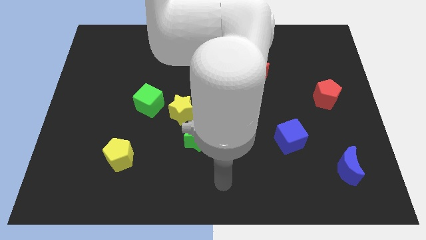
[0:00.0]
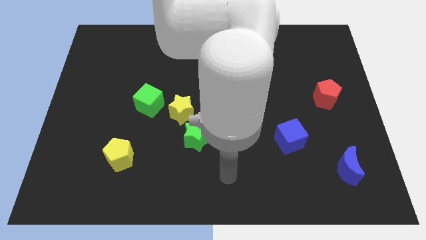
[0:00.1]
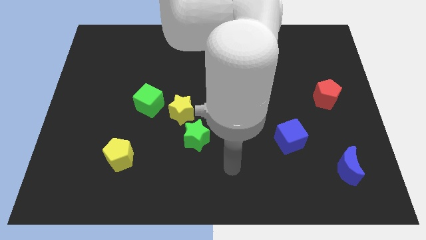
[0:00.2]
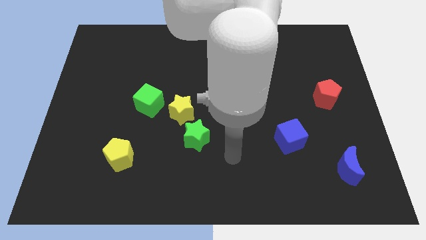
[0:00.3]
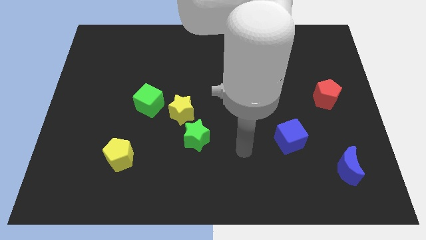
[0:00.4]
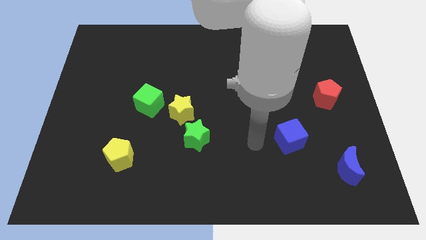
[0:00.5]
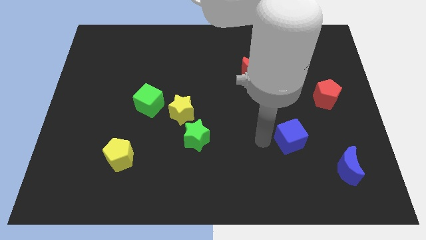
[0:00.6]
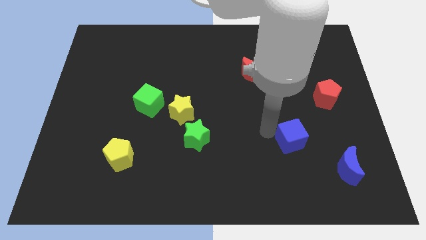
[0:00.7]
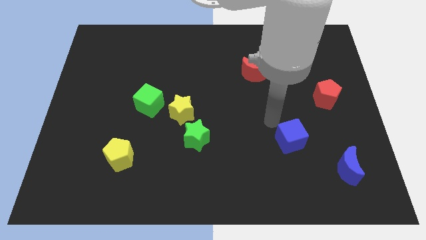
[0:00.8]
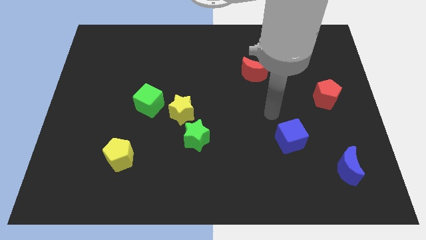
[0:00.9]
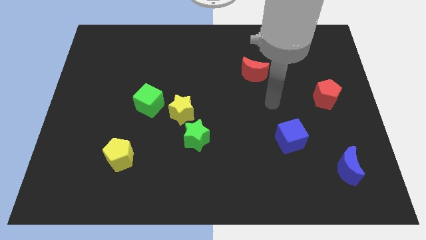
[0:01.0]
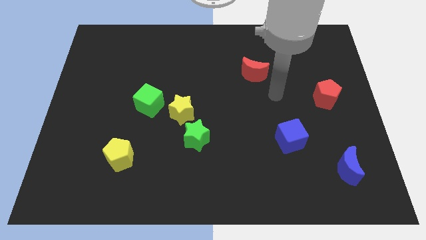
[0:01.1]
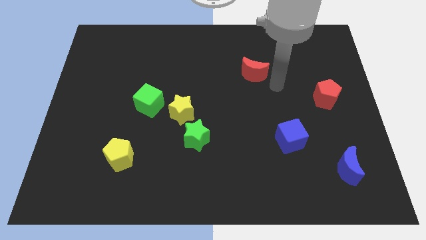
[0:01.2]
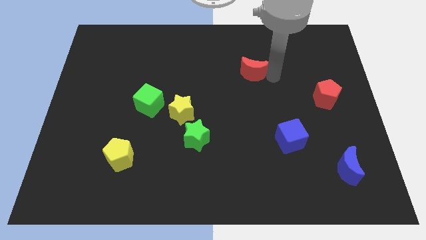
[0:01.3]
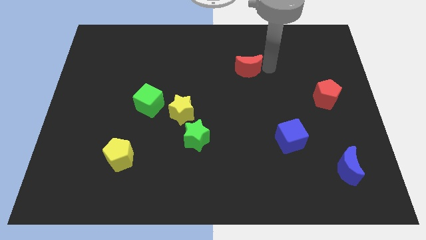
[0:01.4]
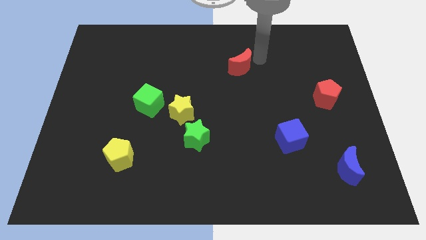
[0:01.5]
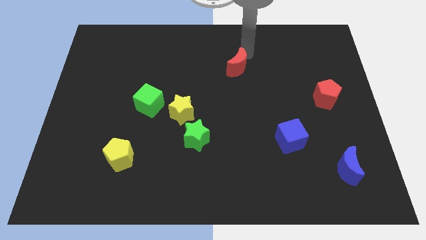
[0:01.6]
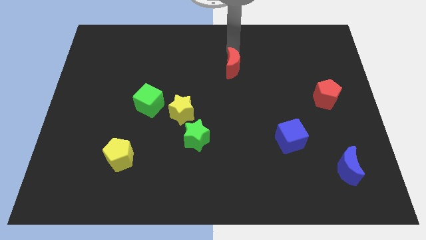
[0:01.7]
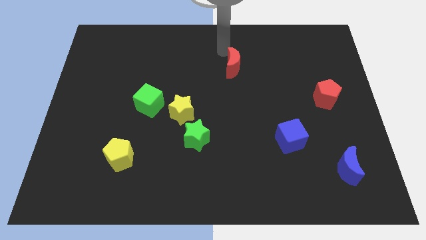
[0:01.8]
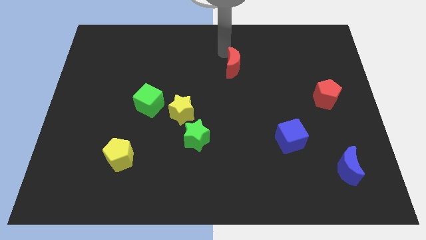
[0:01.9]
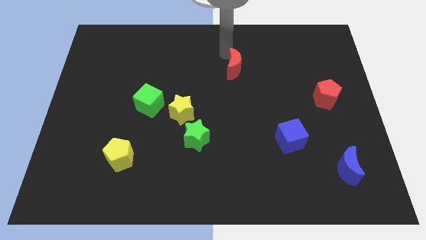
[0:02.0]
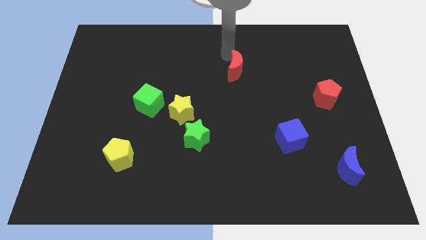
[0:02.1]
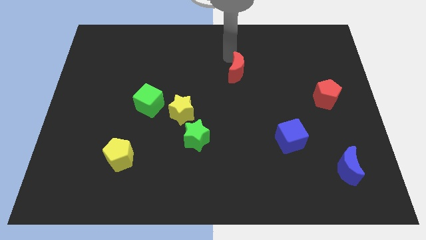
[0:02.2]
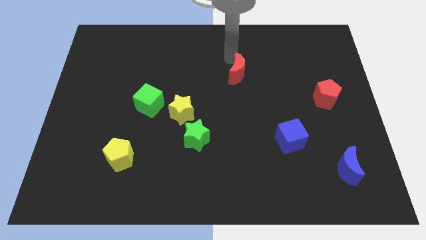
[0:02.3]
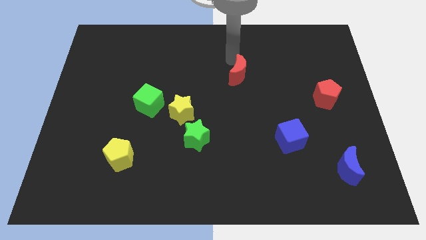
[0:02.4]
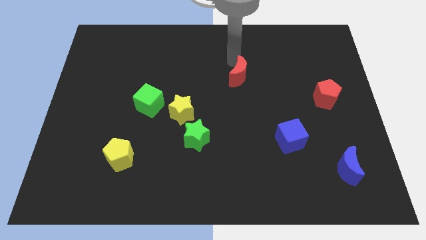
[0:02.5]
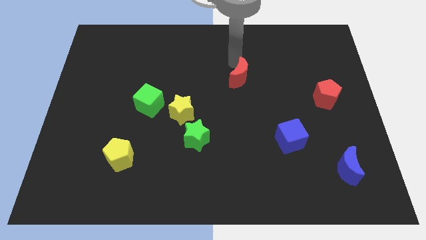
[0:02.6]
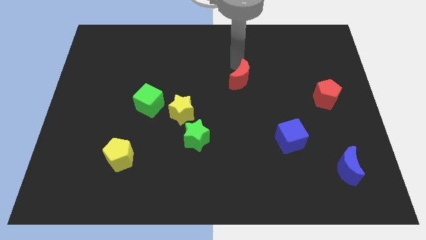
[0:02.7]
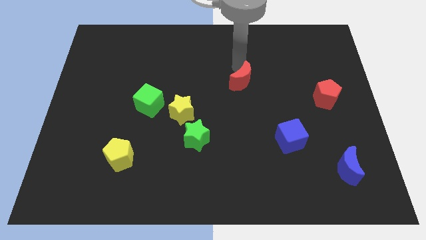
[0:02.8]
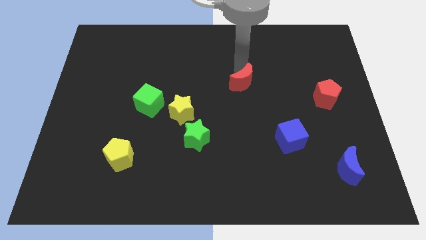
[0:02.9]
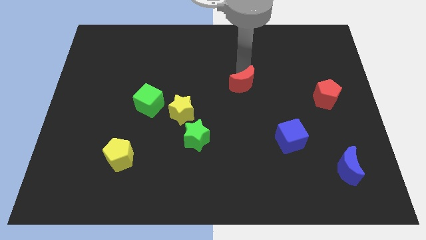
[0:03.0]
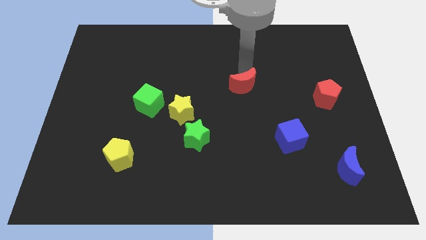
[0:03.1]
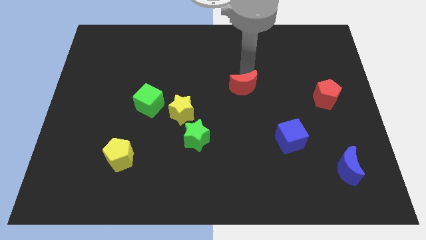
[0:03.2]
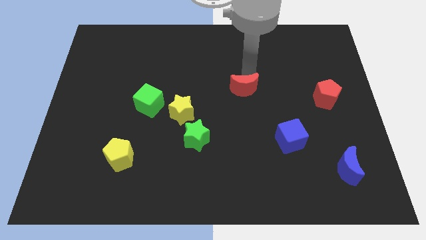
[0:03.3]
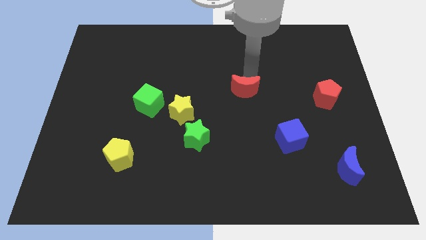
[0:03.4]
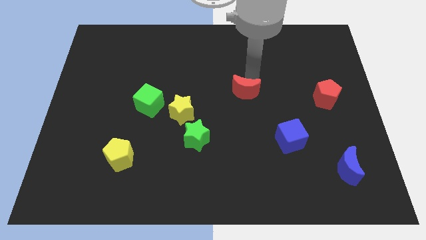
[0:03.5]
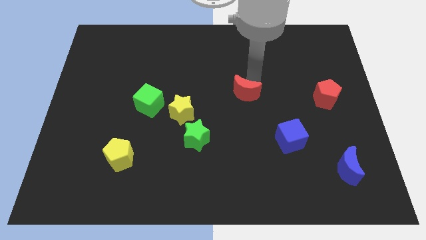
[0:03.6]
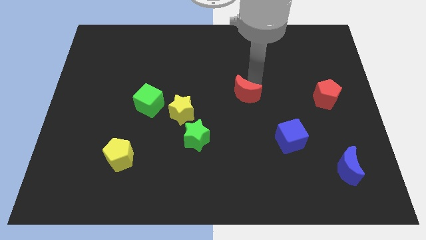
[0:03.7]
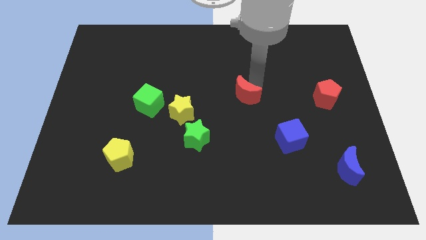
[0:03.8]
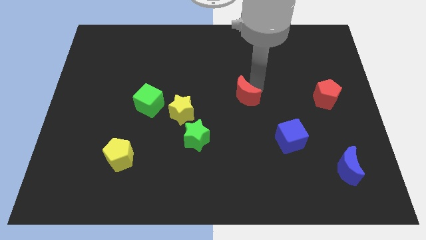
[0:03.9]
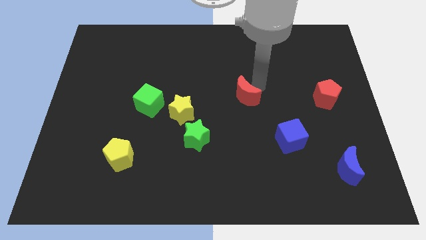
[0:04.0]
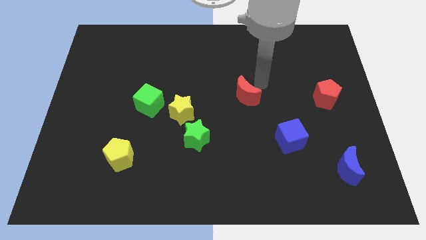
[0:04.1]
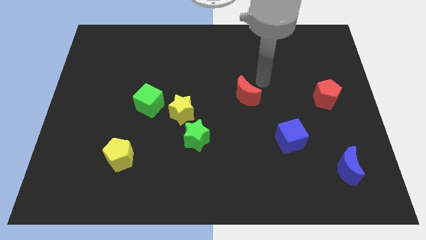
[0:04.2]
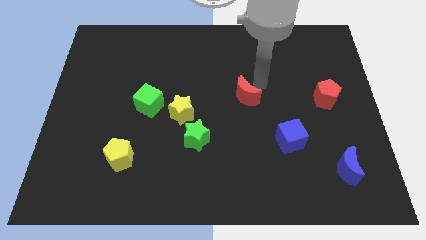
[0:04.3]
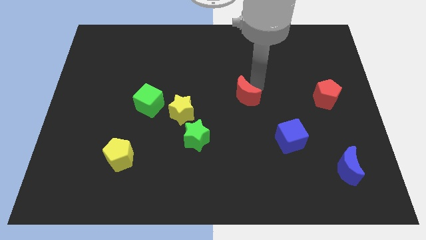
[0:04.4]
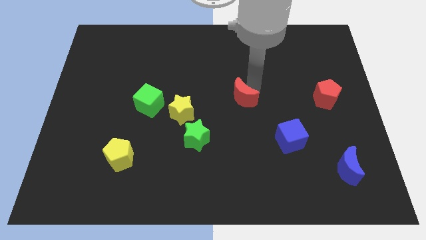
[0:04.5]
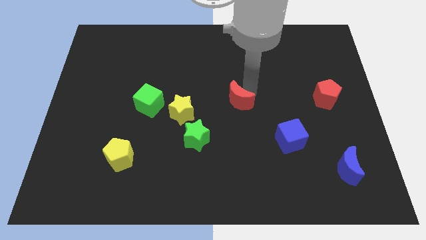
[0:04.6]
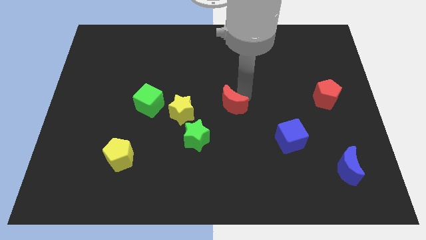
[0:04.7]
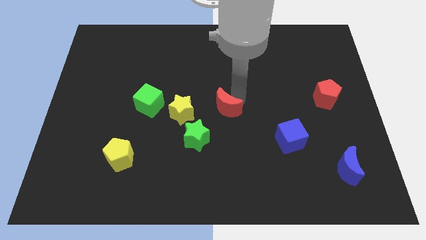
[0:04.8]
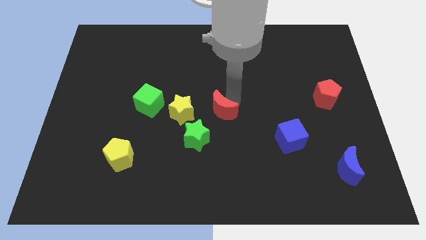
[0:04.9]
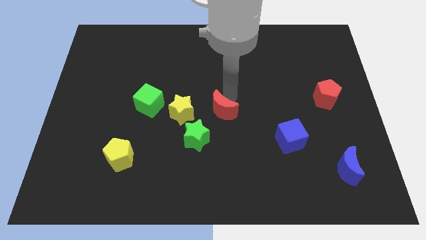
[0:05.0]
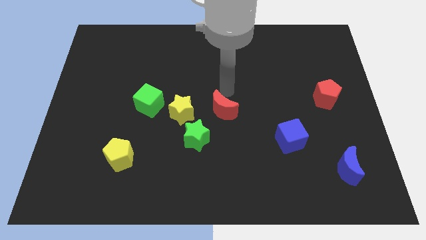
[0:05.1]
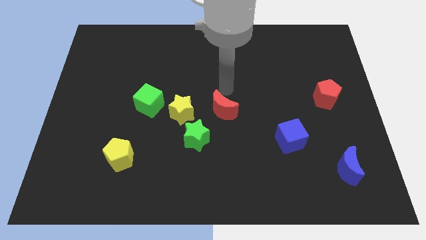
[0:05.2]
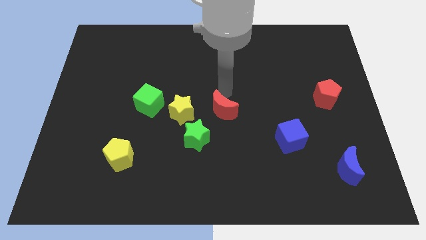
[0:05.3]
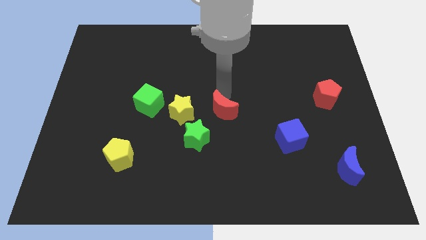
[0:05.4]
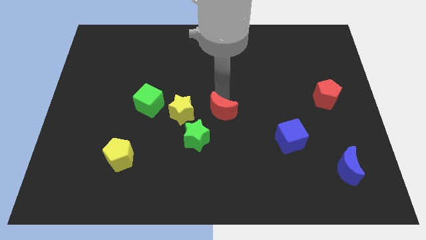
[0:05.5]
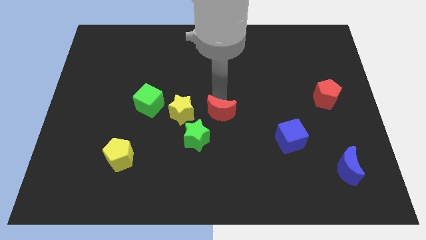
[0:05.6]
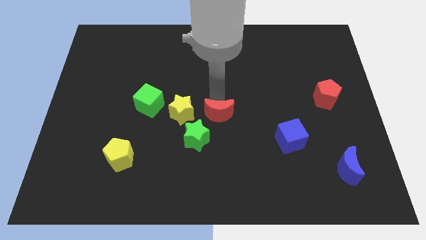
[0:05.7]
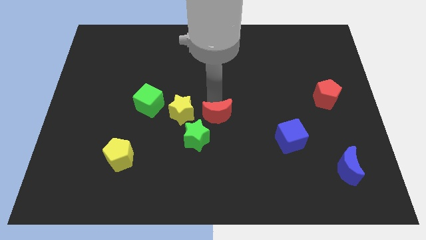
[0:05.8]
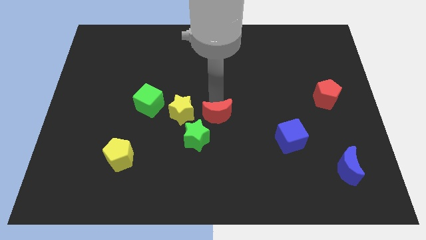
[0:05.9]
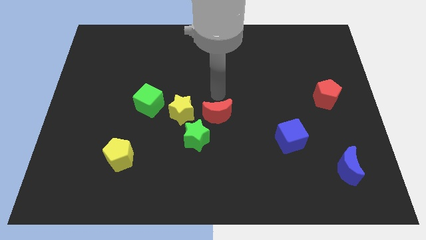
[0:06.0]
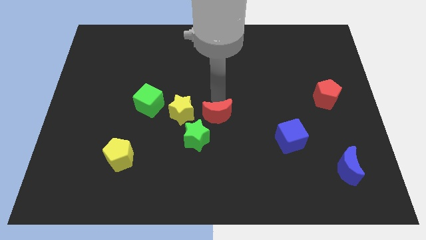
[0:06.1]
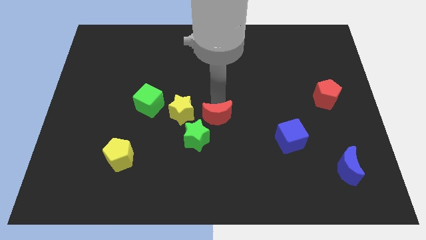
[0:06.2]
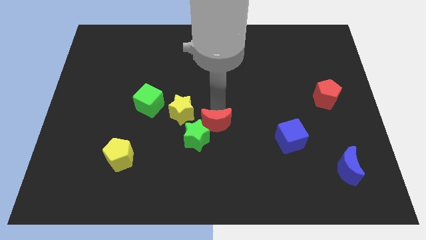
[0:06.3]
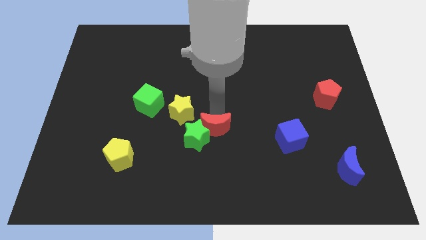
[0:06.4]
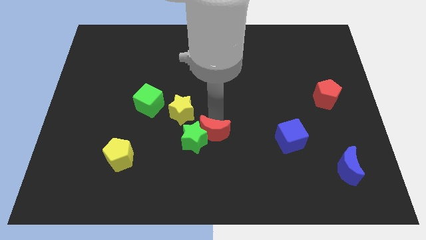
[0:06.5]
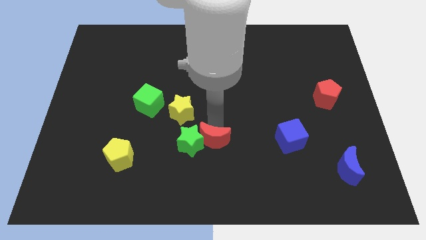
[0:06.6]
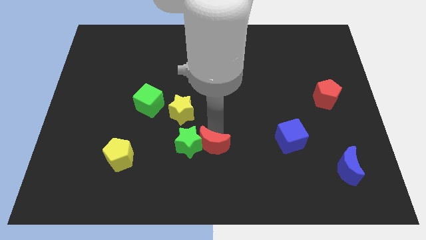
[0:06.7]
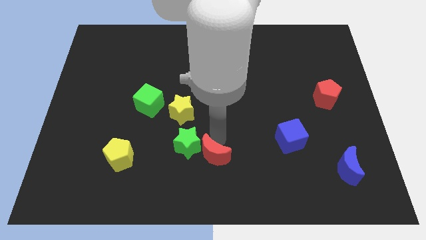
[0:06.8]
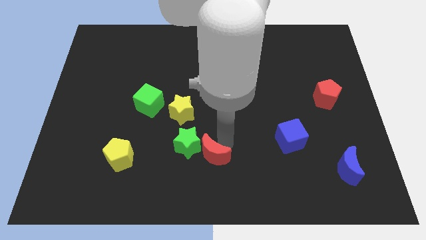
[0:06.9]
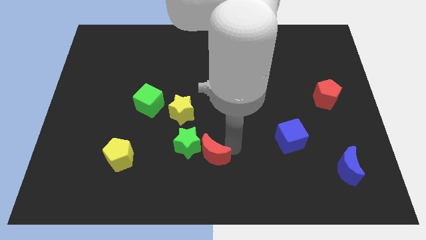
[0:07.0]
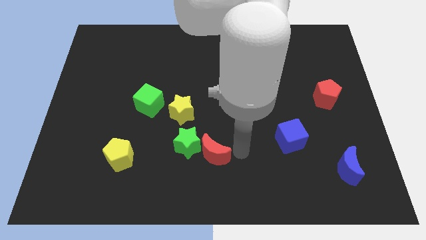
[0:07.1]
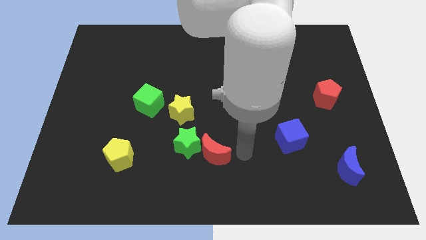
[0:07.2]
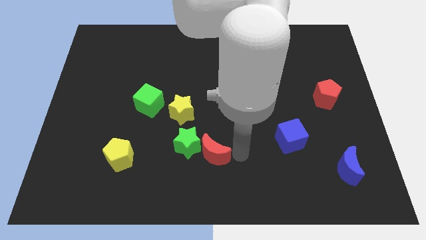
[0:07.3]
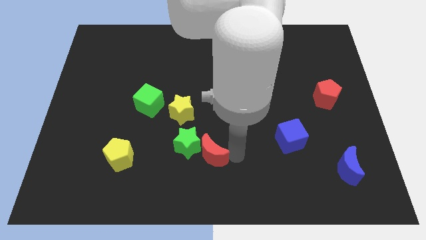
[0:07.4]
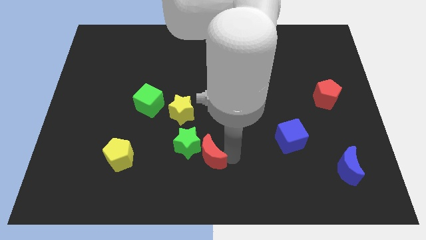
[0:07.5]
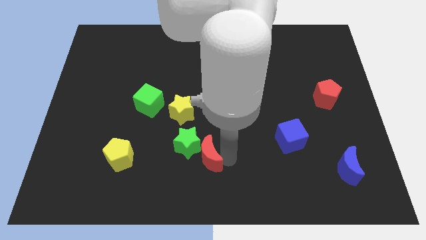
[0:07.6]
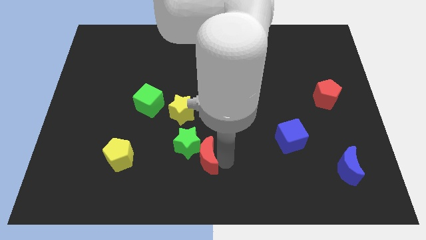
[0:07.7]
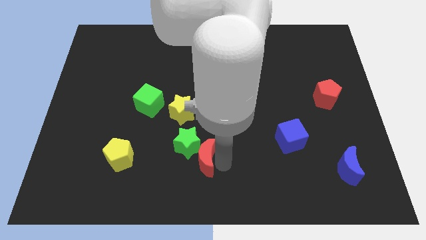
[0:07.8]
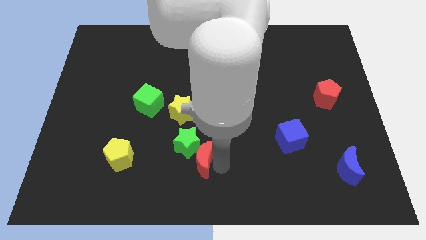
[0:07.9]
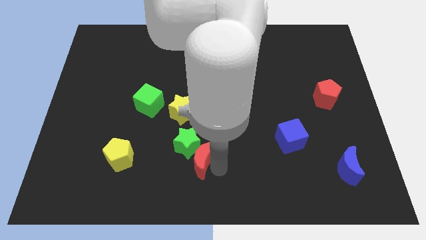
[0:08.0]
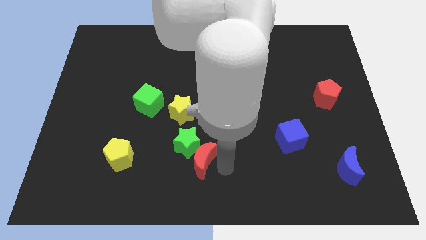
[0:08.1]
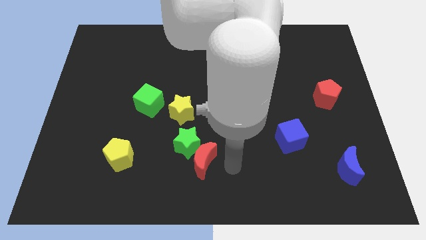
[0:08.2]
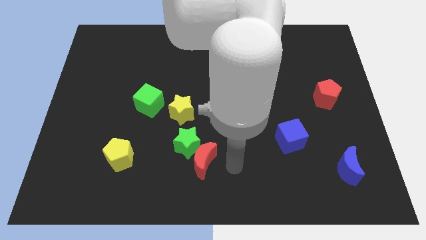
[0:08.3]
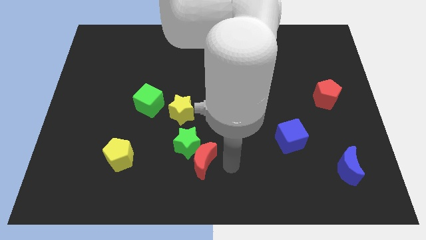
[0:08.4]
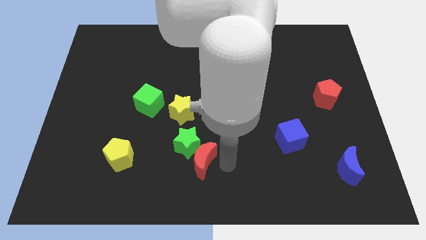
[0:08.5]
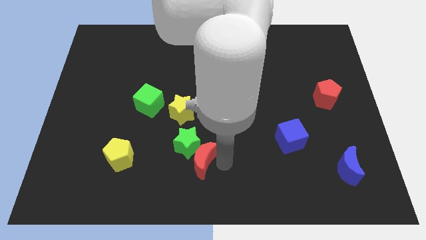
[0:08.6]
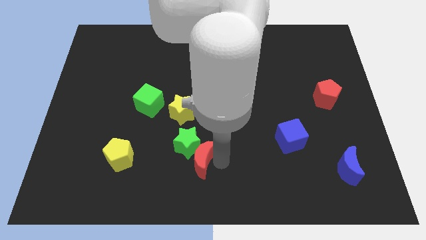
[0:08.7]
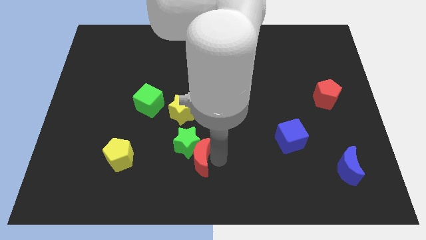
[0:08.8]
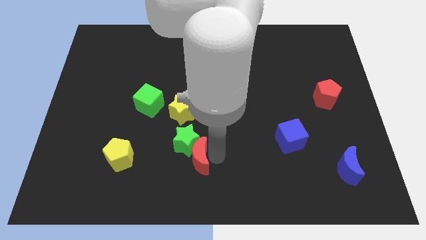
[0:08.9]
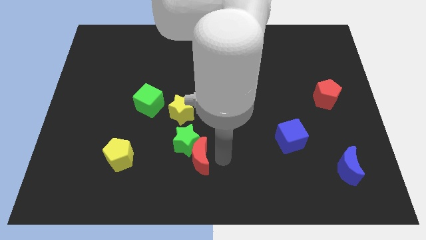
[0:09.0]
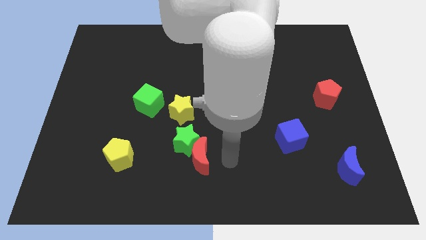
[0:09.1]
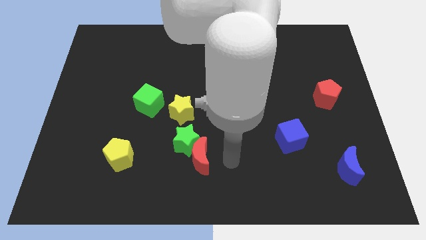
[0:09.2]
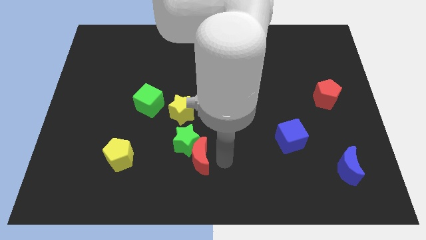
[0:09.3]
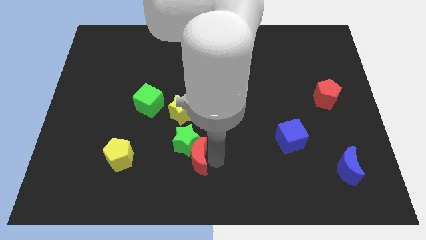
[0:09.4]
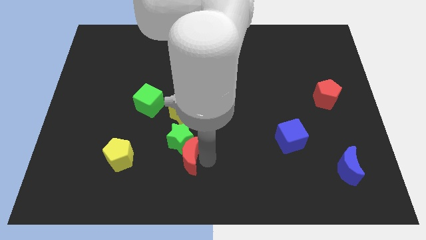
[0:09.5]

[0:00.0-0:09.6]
push the red moon to the right of the yellow pentagon
